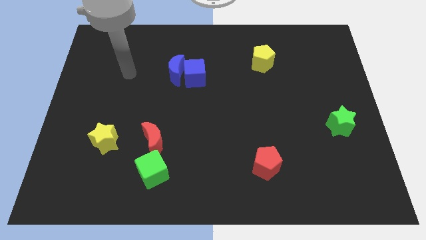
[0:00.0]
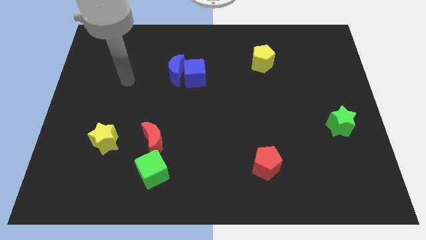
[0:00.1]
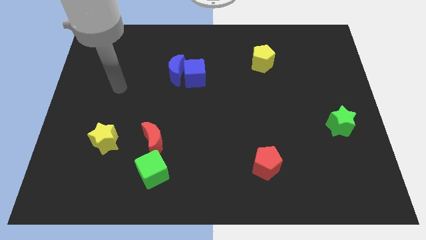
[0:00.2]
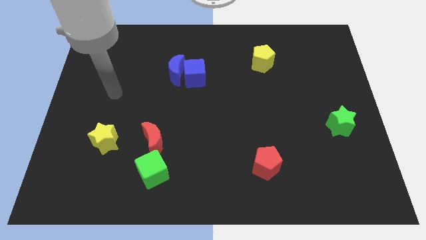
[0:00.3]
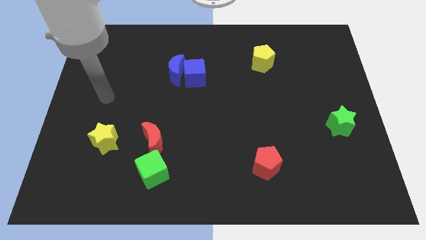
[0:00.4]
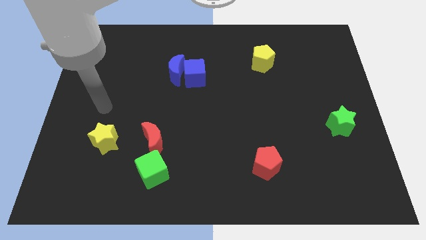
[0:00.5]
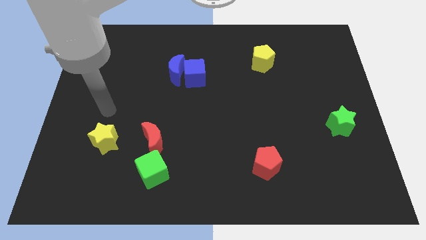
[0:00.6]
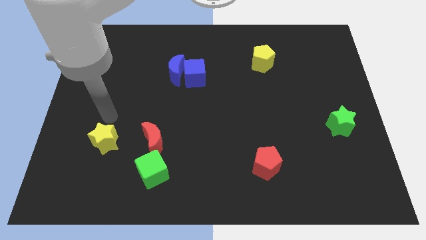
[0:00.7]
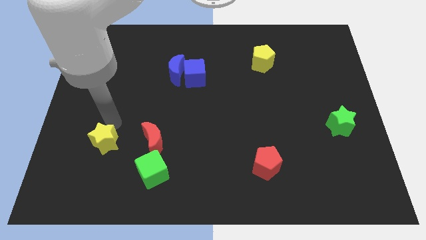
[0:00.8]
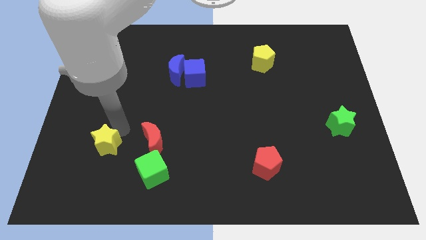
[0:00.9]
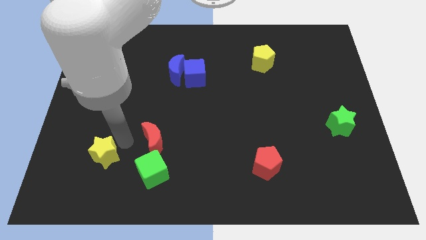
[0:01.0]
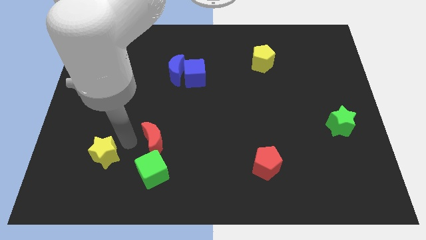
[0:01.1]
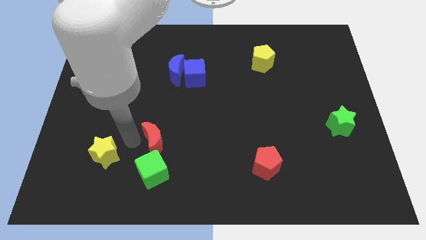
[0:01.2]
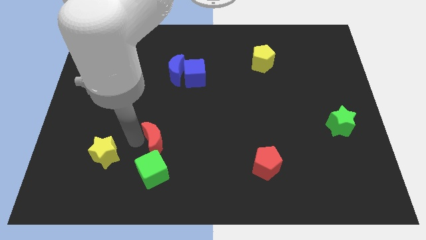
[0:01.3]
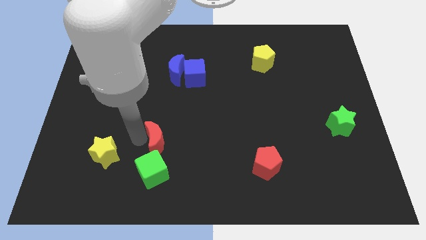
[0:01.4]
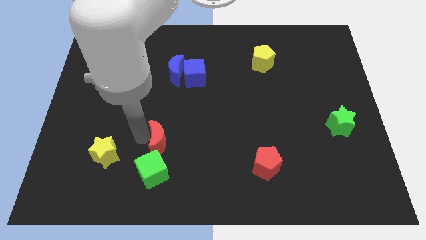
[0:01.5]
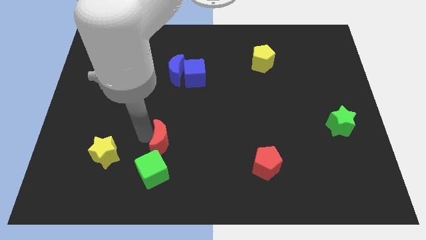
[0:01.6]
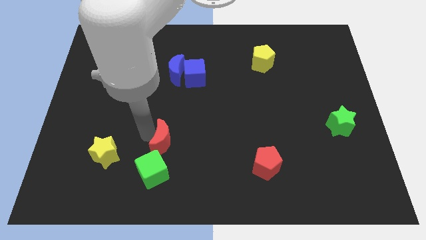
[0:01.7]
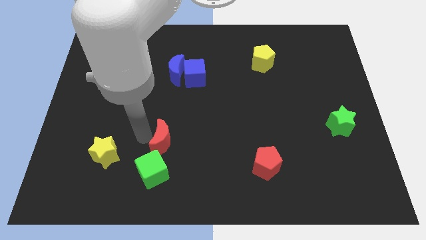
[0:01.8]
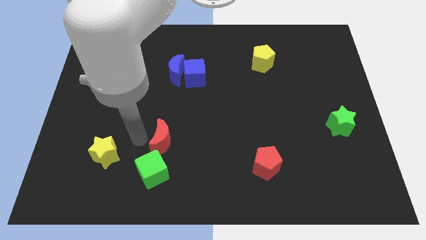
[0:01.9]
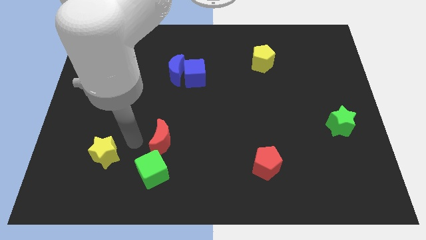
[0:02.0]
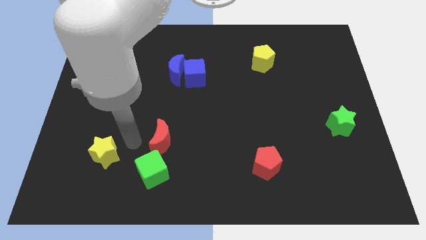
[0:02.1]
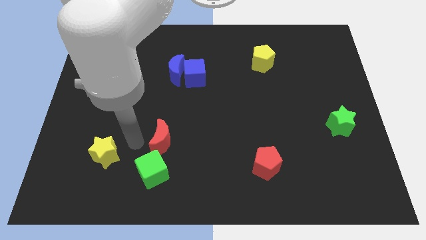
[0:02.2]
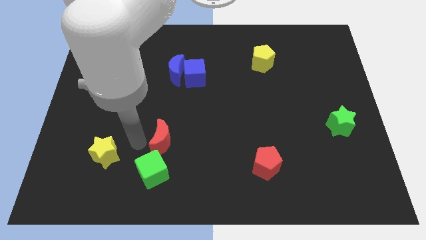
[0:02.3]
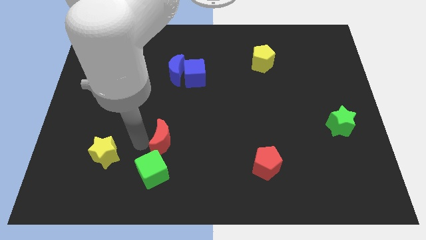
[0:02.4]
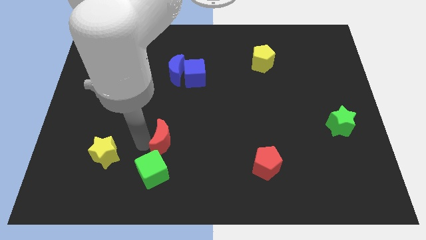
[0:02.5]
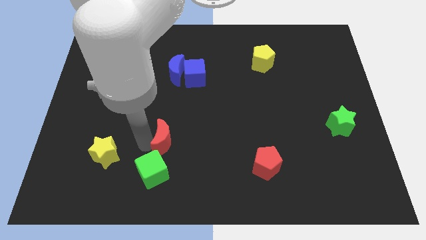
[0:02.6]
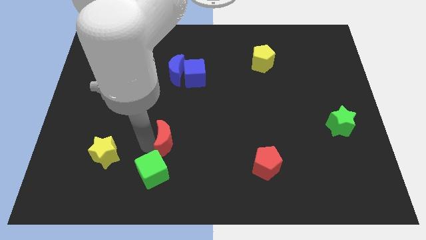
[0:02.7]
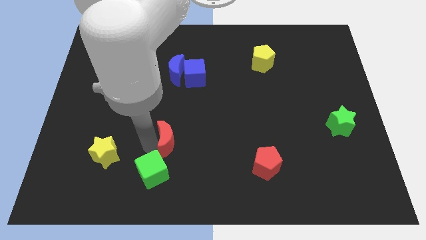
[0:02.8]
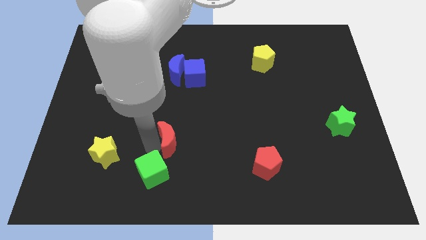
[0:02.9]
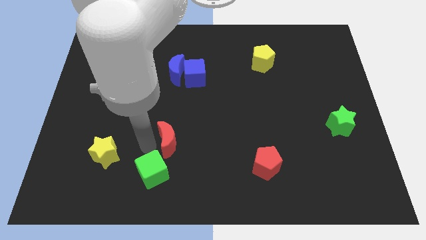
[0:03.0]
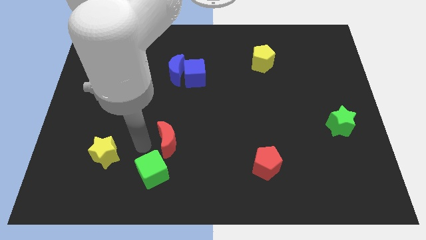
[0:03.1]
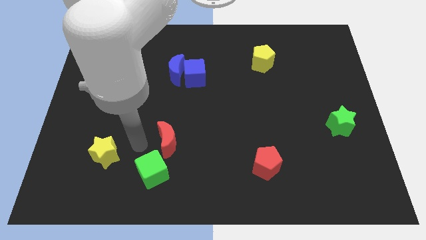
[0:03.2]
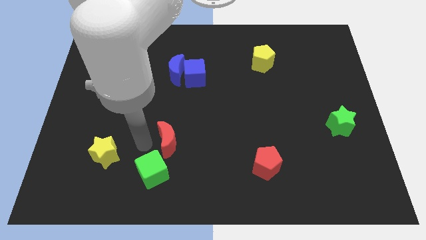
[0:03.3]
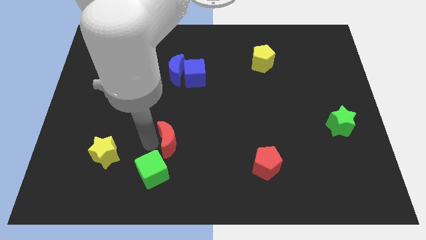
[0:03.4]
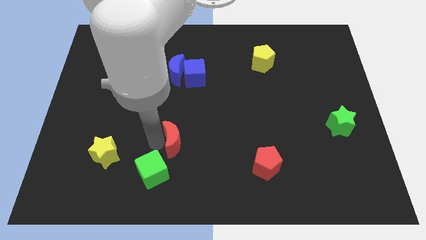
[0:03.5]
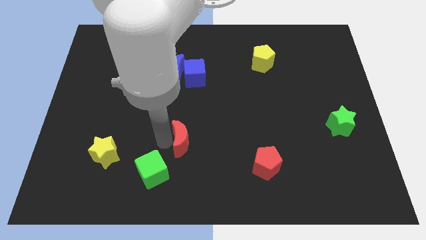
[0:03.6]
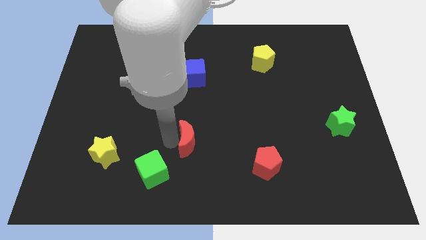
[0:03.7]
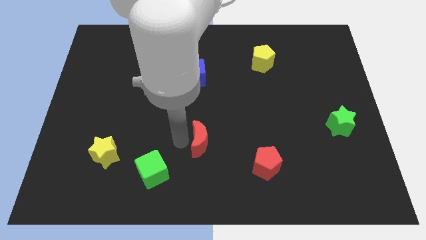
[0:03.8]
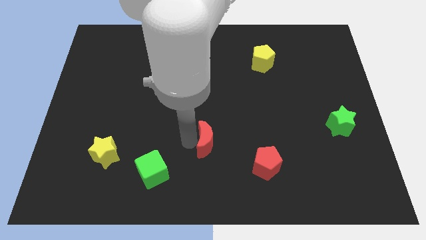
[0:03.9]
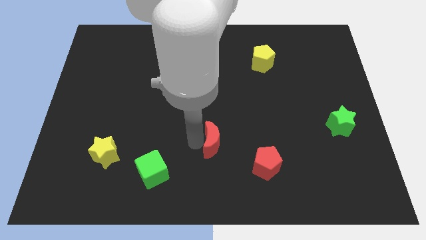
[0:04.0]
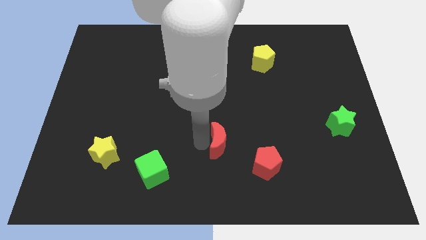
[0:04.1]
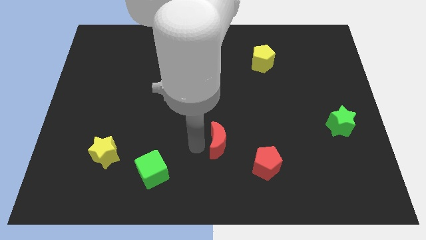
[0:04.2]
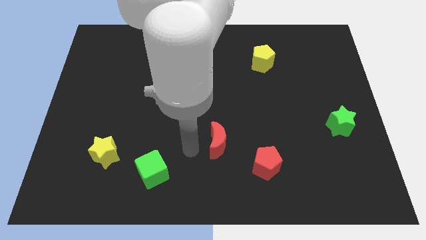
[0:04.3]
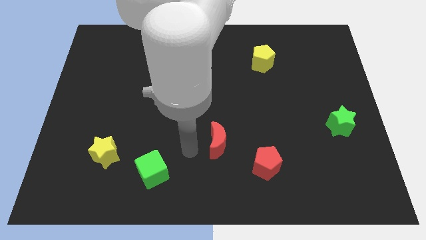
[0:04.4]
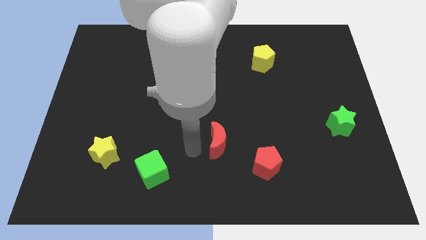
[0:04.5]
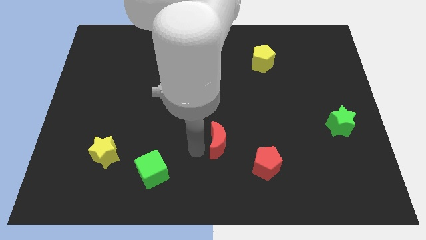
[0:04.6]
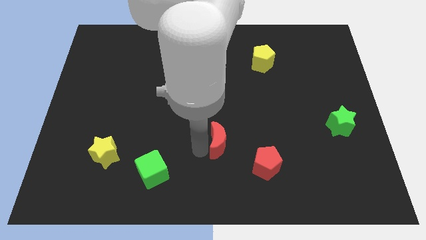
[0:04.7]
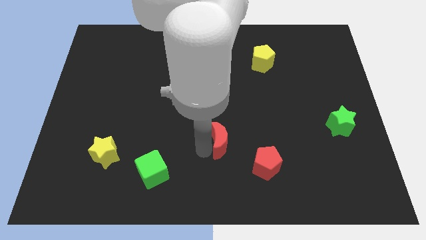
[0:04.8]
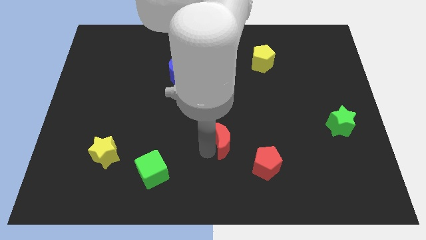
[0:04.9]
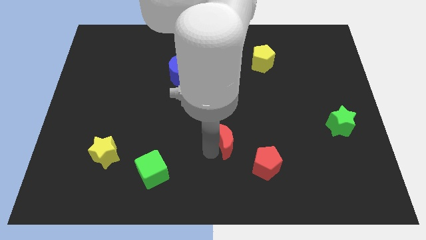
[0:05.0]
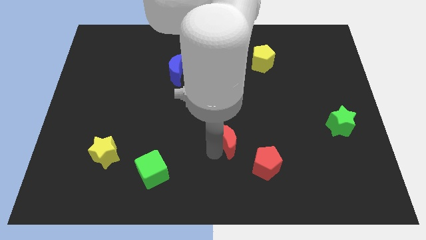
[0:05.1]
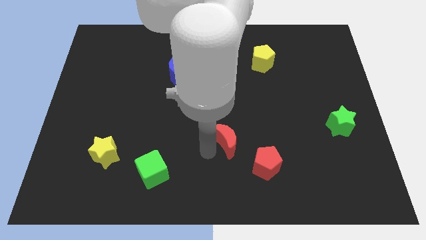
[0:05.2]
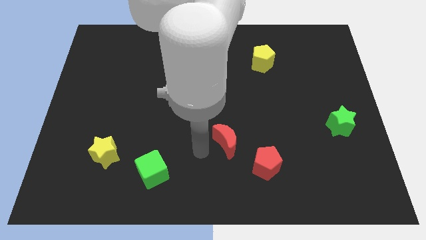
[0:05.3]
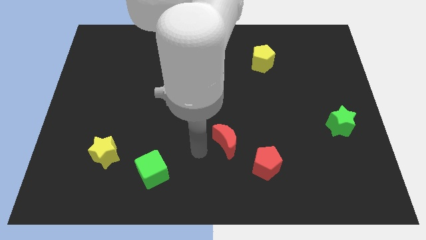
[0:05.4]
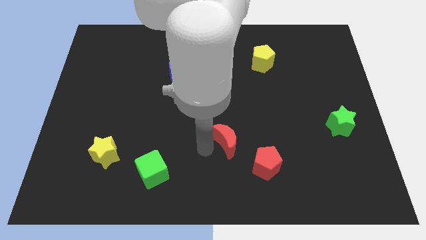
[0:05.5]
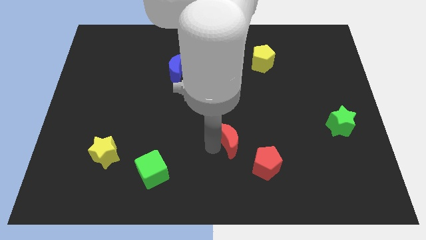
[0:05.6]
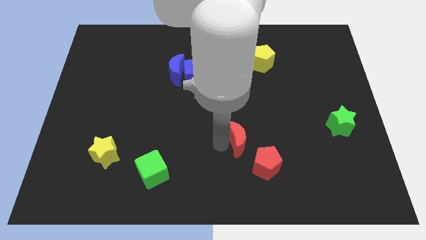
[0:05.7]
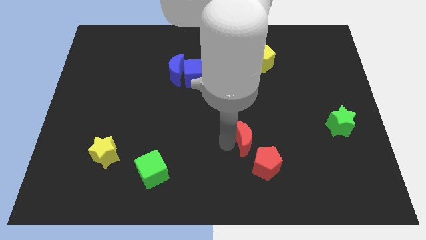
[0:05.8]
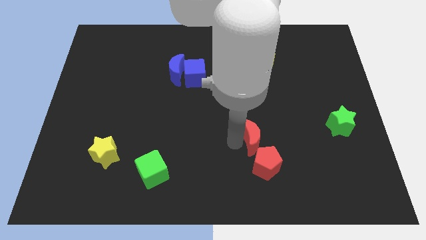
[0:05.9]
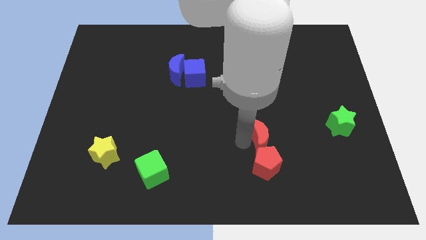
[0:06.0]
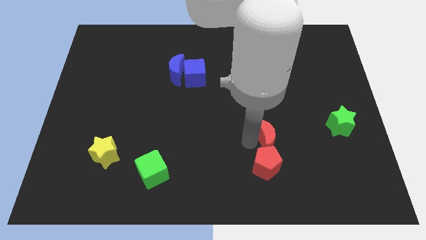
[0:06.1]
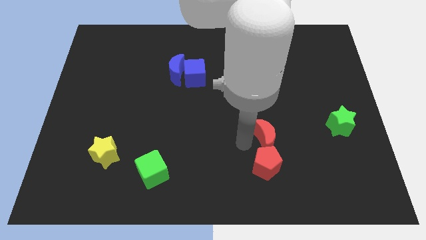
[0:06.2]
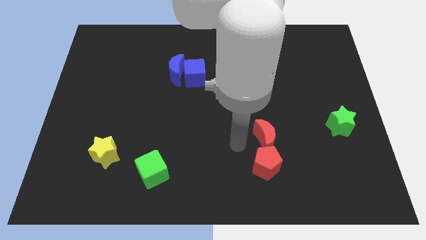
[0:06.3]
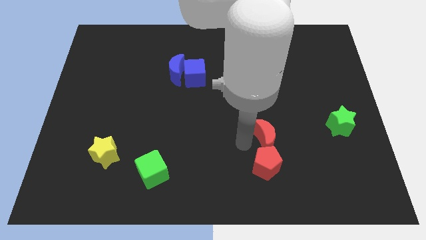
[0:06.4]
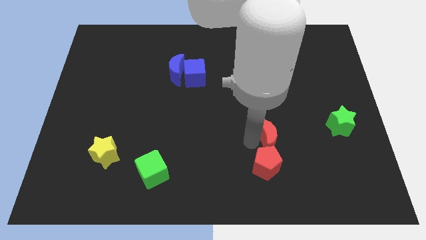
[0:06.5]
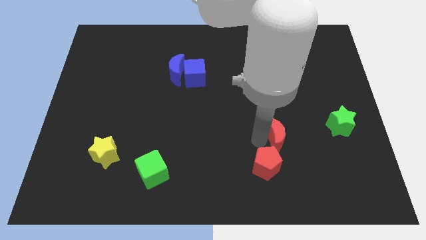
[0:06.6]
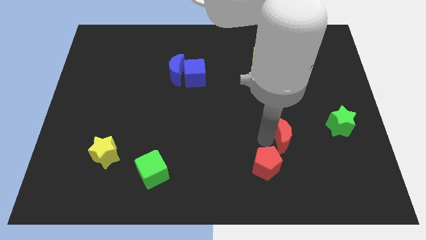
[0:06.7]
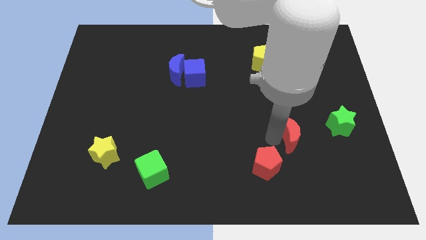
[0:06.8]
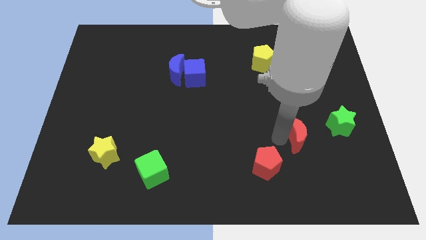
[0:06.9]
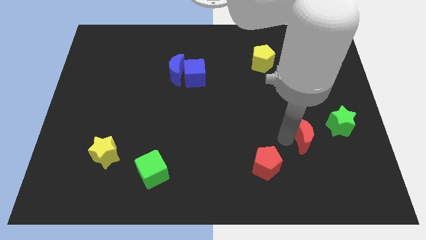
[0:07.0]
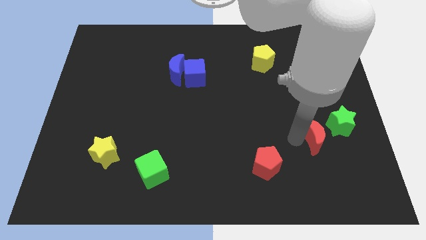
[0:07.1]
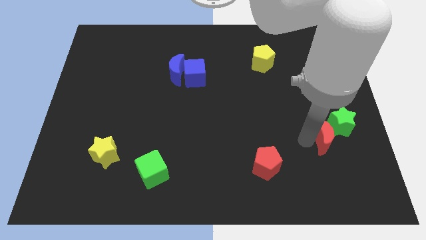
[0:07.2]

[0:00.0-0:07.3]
move the red moon next to the green star

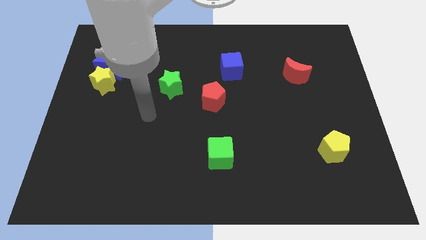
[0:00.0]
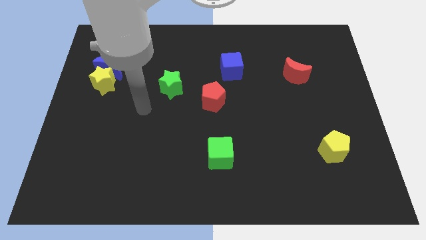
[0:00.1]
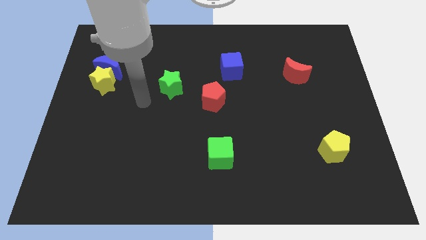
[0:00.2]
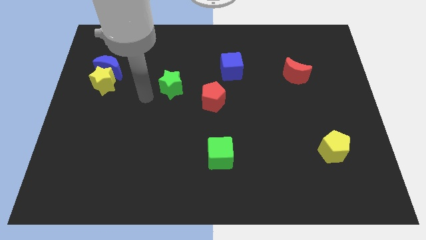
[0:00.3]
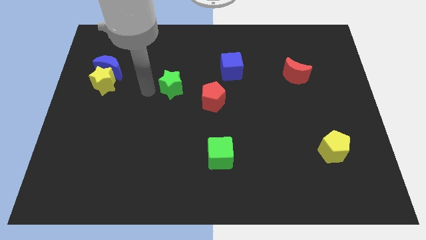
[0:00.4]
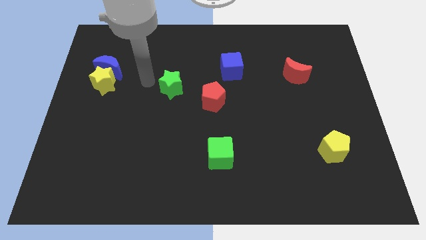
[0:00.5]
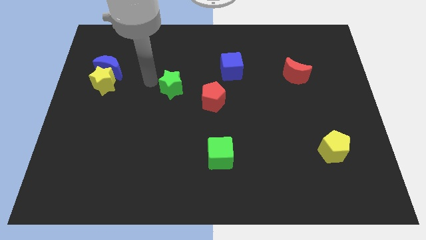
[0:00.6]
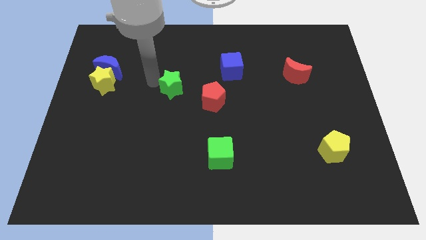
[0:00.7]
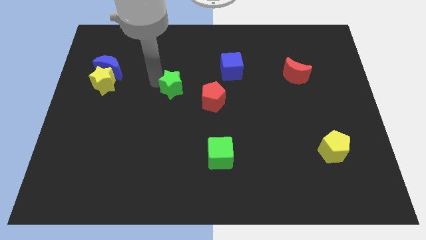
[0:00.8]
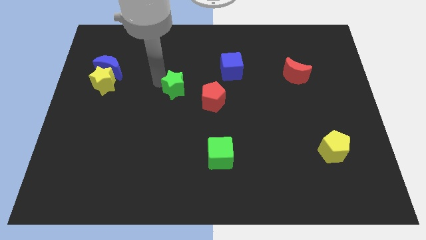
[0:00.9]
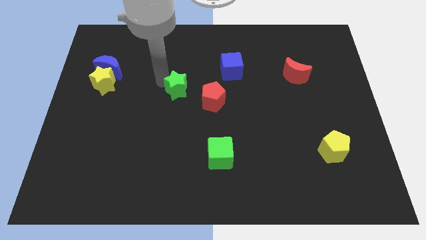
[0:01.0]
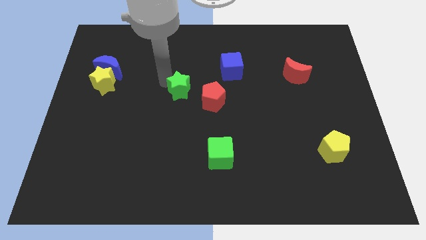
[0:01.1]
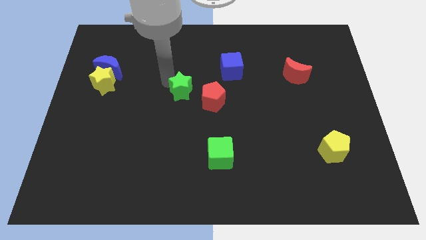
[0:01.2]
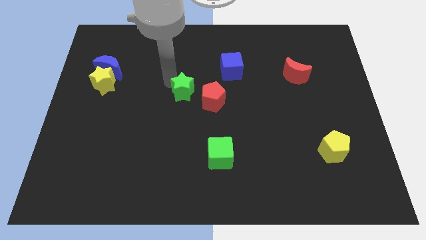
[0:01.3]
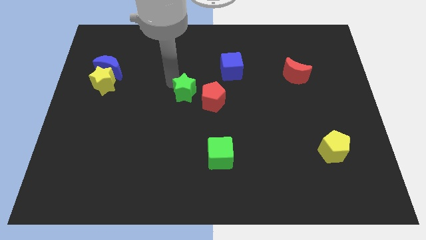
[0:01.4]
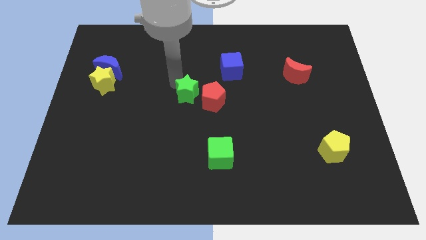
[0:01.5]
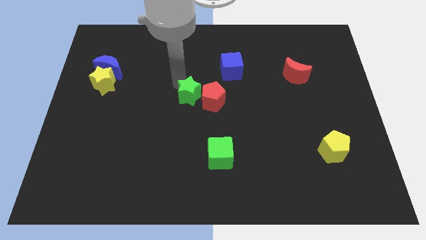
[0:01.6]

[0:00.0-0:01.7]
move the green star towards the red pentagon
